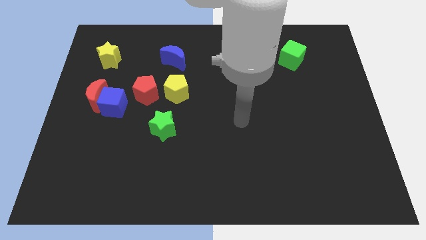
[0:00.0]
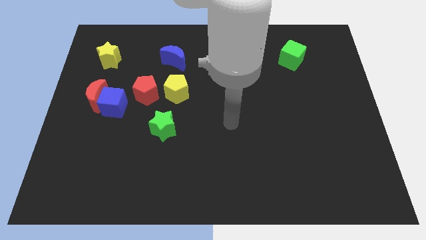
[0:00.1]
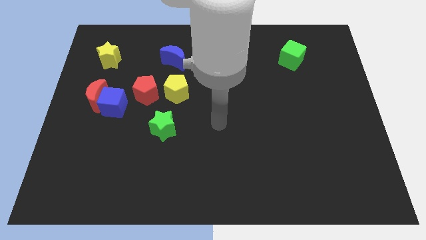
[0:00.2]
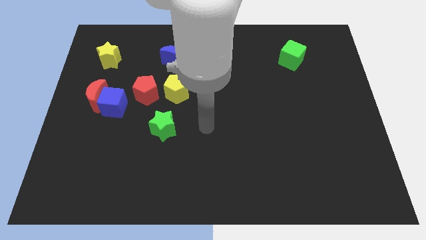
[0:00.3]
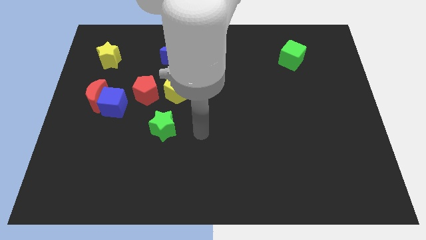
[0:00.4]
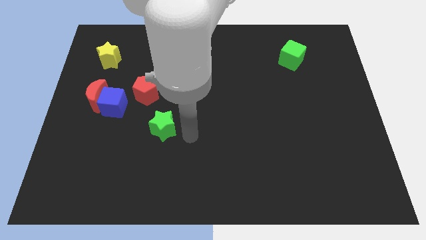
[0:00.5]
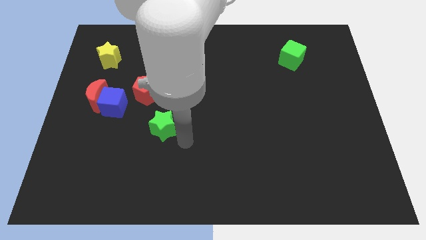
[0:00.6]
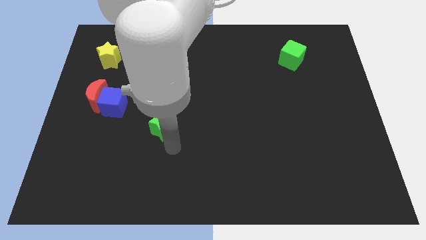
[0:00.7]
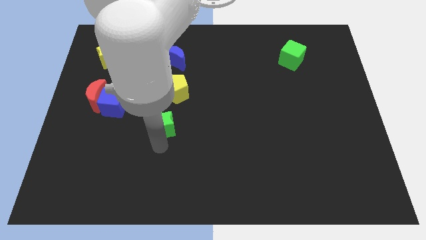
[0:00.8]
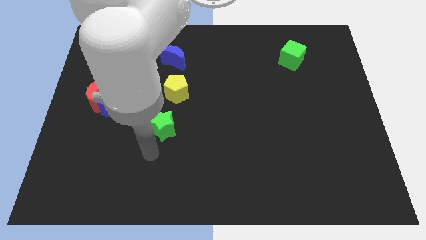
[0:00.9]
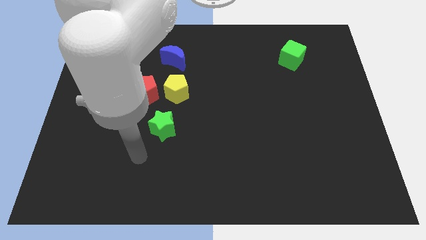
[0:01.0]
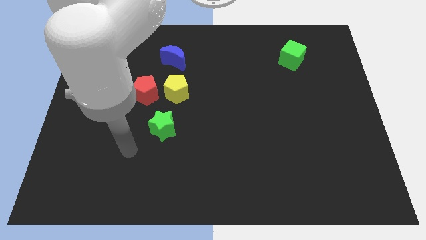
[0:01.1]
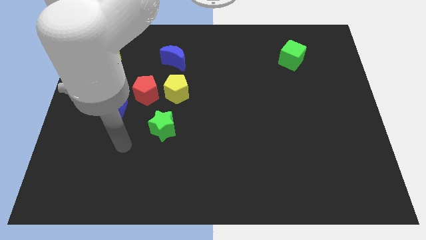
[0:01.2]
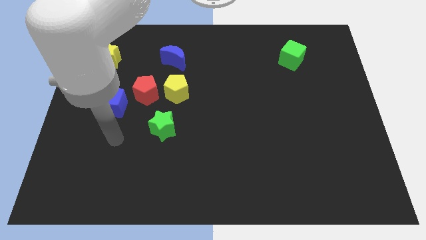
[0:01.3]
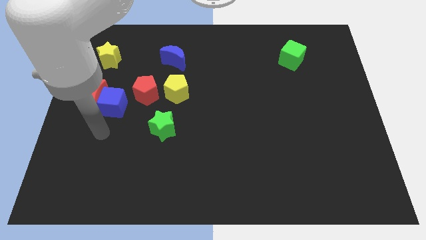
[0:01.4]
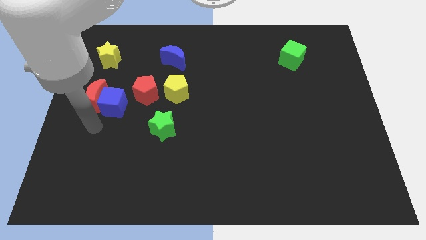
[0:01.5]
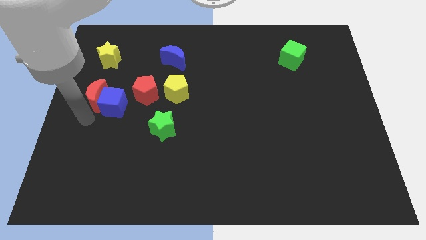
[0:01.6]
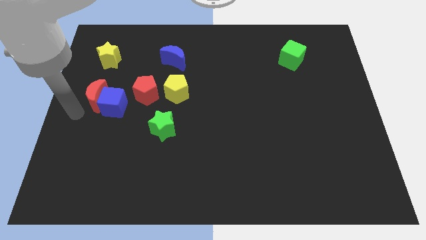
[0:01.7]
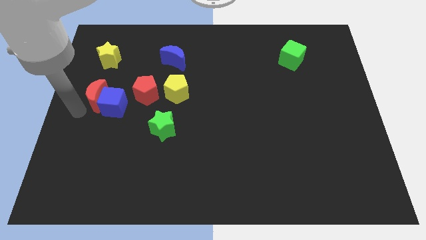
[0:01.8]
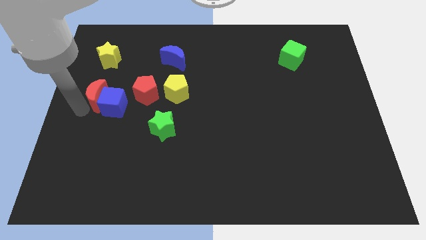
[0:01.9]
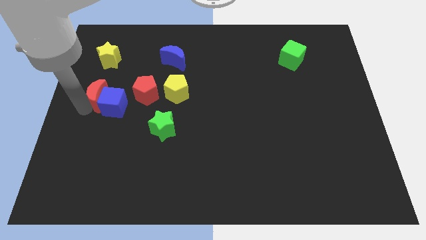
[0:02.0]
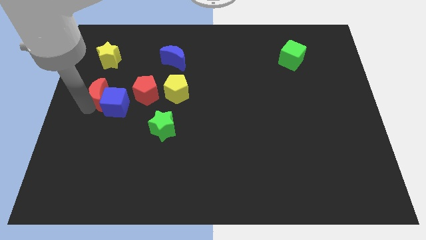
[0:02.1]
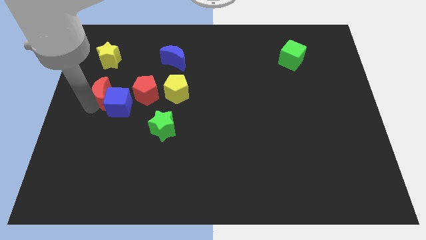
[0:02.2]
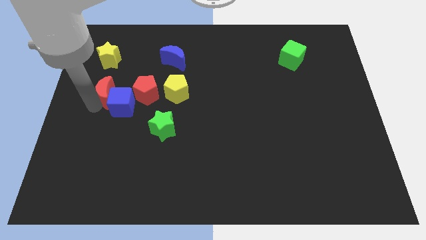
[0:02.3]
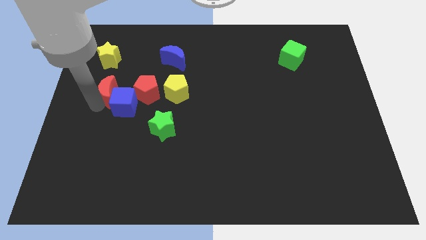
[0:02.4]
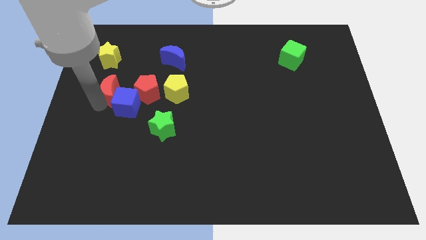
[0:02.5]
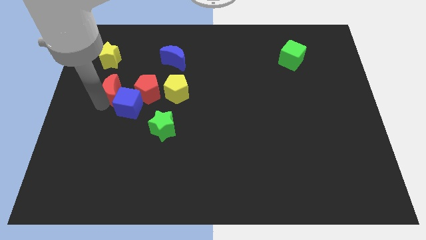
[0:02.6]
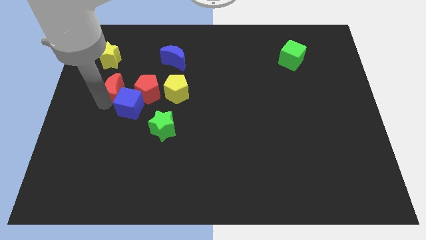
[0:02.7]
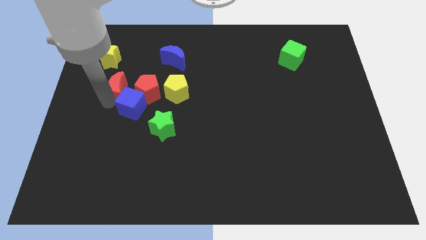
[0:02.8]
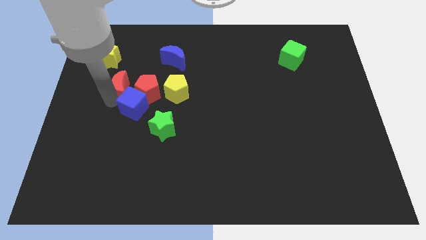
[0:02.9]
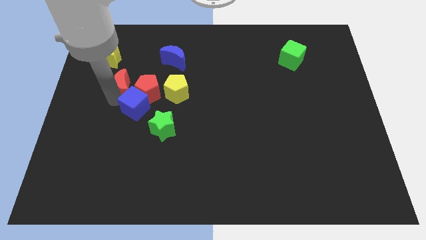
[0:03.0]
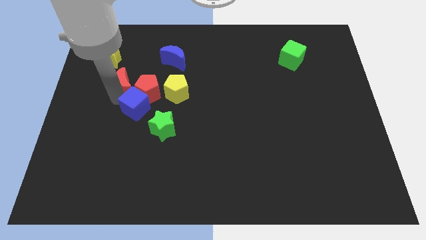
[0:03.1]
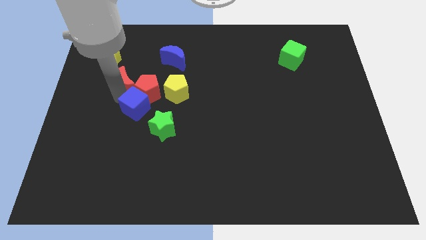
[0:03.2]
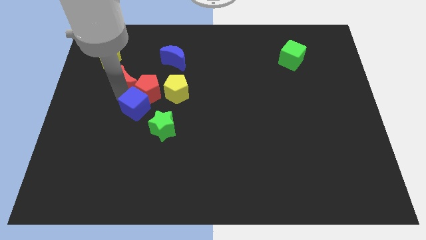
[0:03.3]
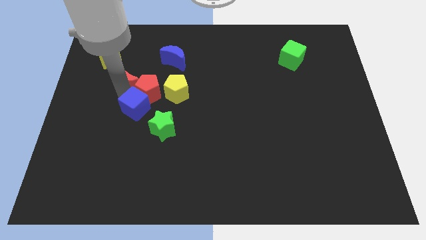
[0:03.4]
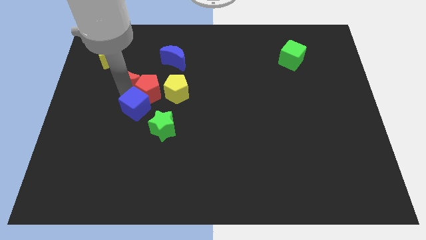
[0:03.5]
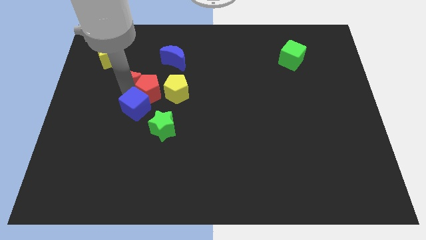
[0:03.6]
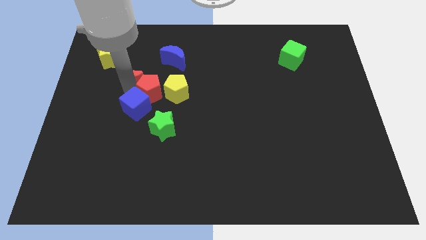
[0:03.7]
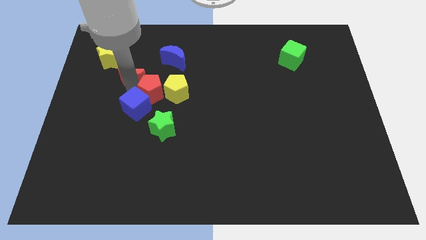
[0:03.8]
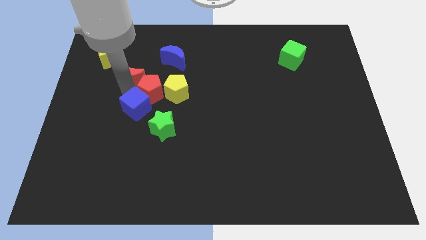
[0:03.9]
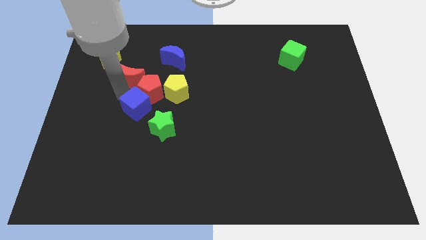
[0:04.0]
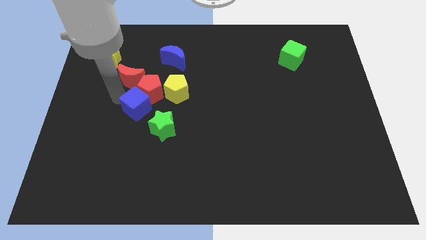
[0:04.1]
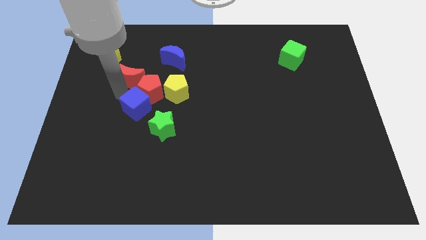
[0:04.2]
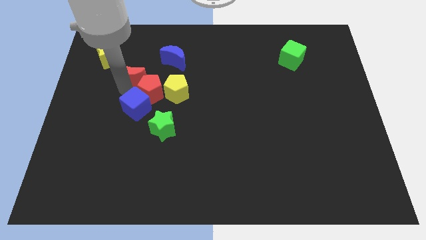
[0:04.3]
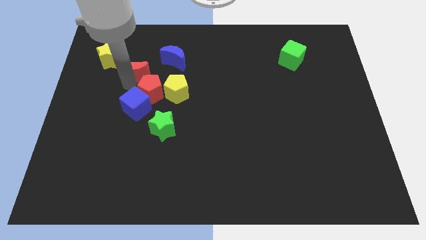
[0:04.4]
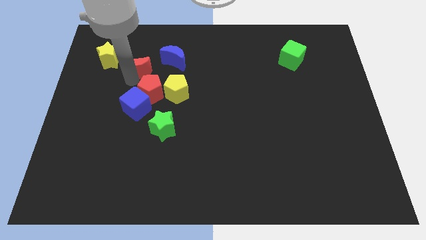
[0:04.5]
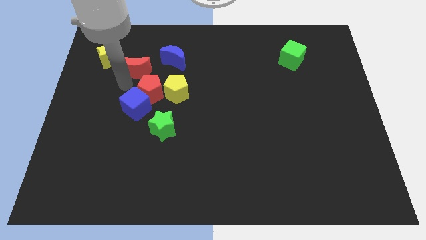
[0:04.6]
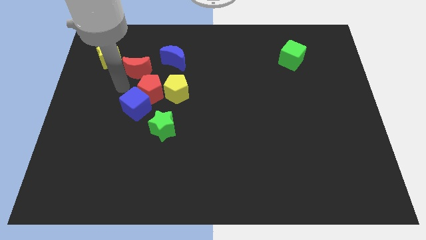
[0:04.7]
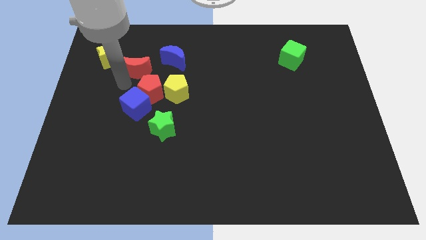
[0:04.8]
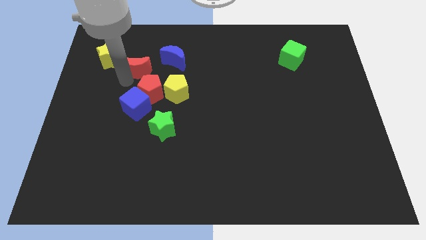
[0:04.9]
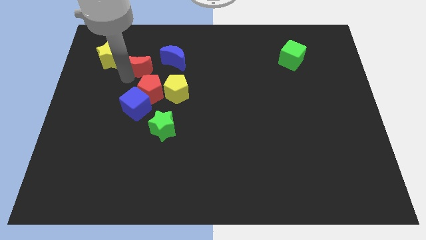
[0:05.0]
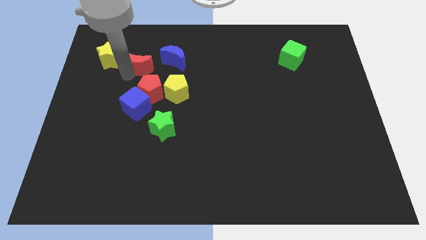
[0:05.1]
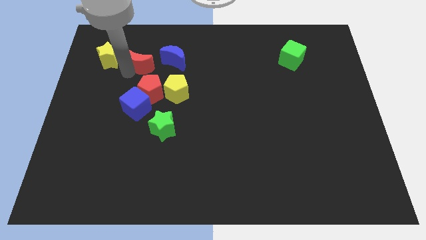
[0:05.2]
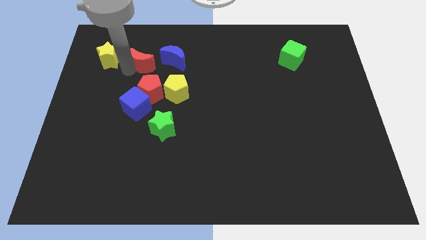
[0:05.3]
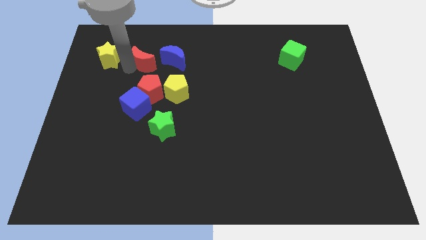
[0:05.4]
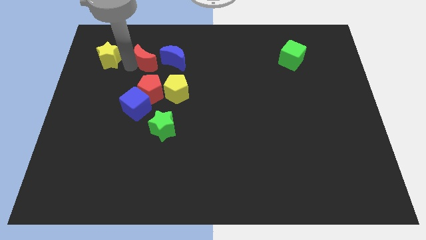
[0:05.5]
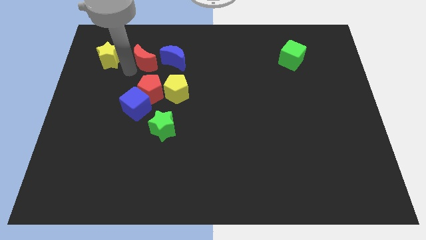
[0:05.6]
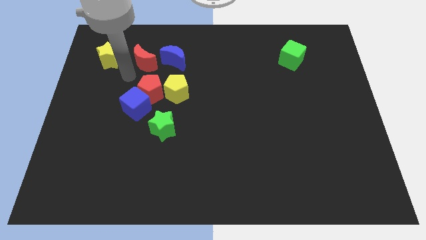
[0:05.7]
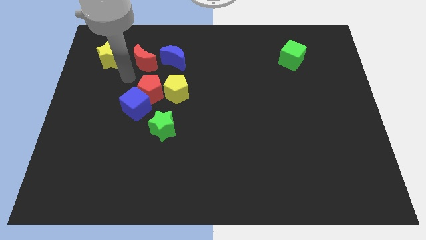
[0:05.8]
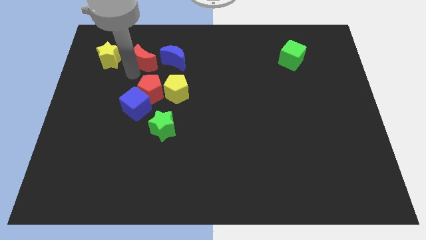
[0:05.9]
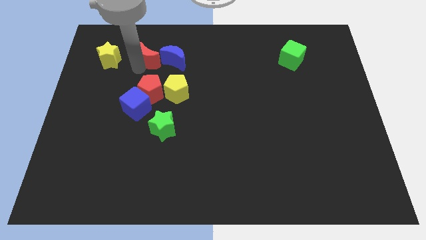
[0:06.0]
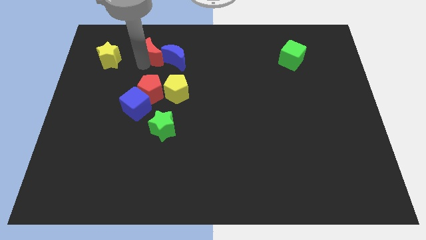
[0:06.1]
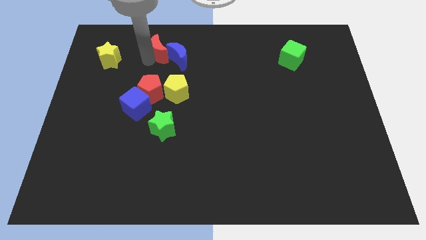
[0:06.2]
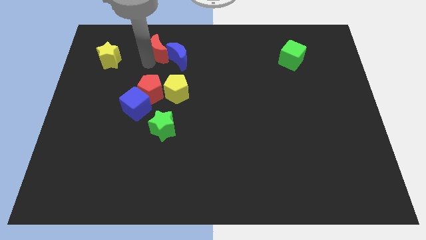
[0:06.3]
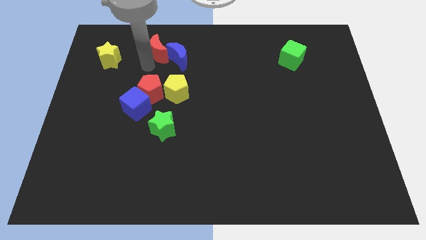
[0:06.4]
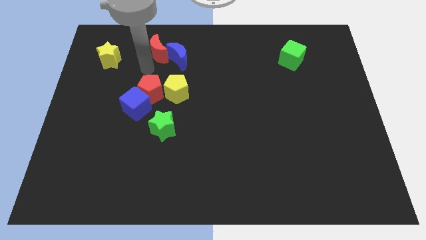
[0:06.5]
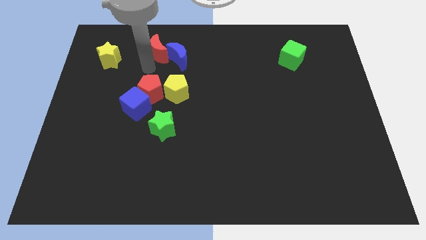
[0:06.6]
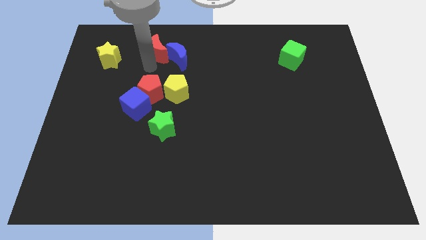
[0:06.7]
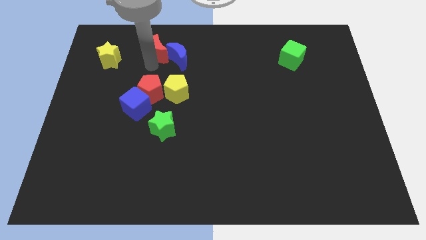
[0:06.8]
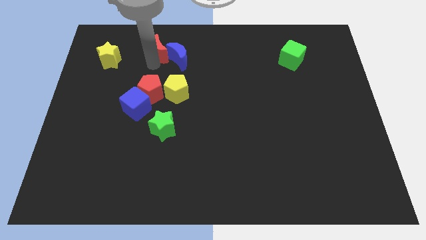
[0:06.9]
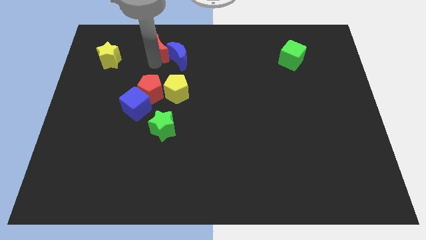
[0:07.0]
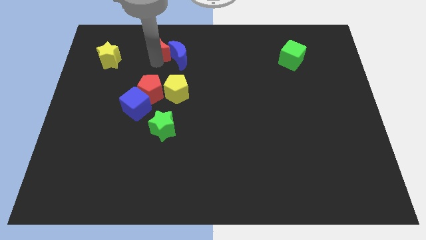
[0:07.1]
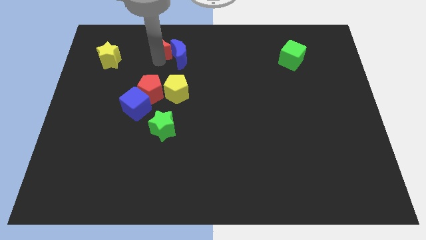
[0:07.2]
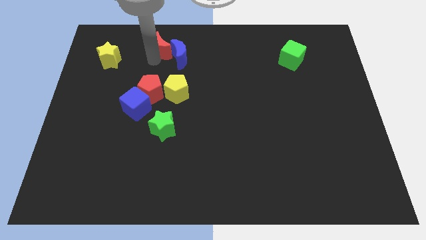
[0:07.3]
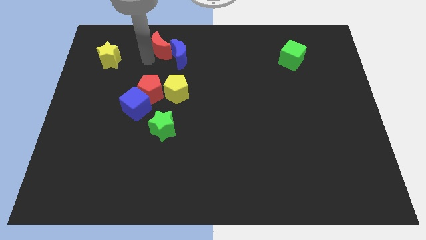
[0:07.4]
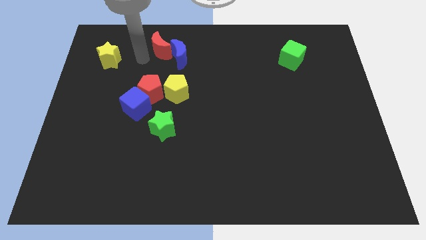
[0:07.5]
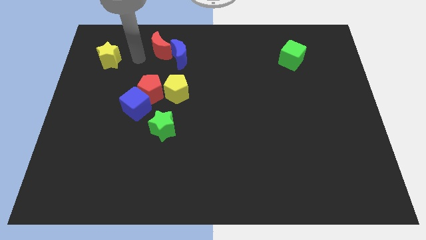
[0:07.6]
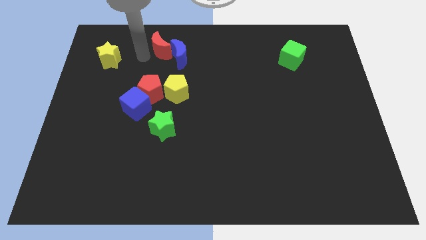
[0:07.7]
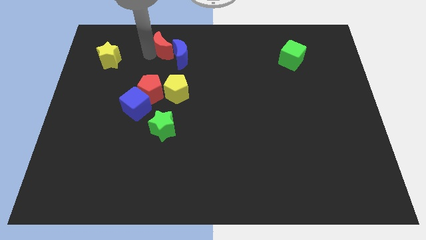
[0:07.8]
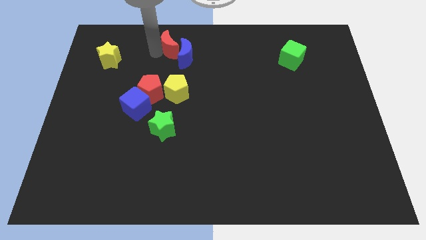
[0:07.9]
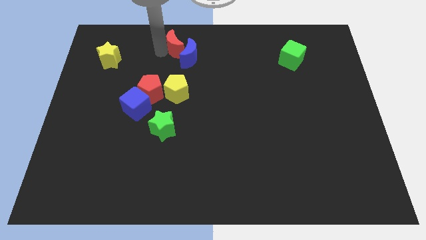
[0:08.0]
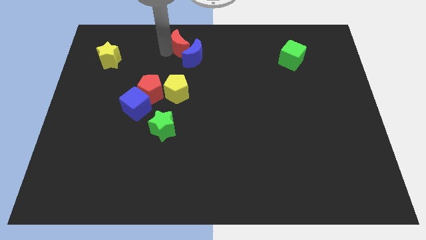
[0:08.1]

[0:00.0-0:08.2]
push the red moon to the top
